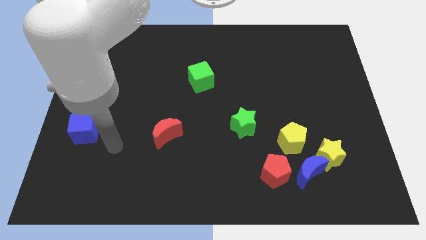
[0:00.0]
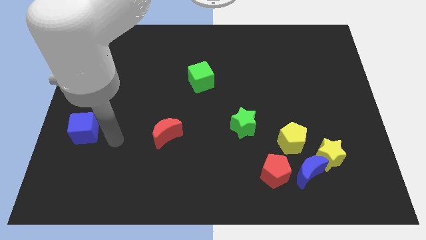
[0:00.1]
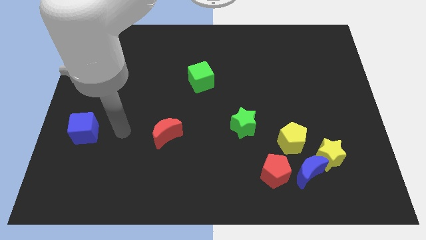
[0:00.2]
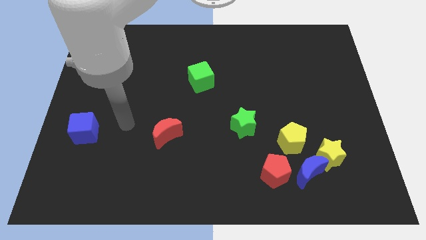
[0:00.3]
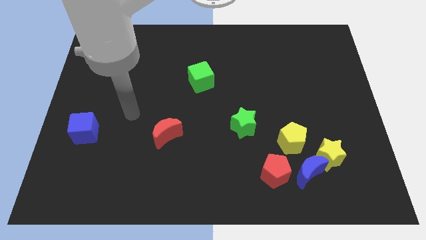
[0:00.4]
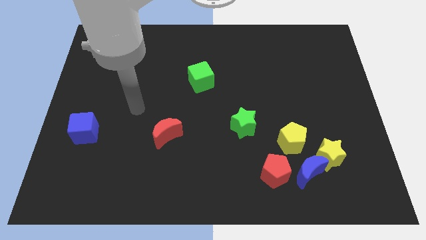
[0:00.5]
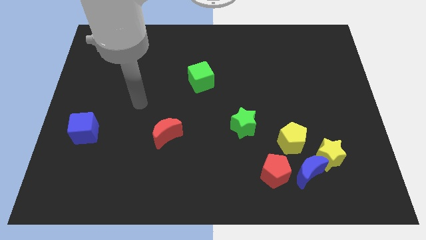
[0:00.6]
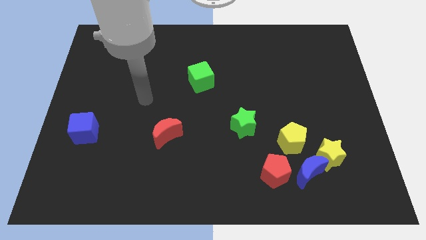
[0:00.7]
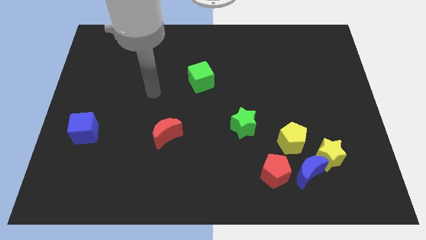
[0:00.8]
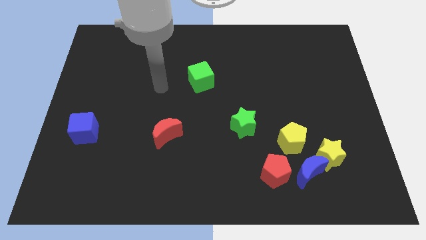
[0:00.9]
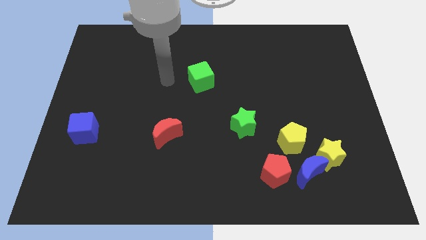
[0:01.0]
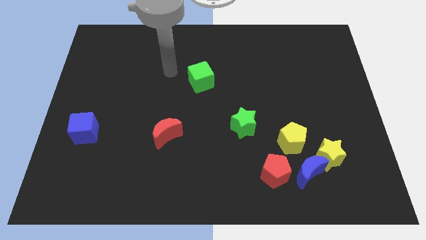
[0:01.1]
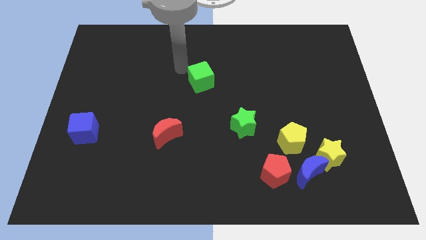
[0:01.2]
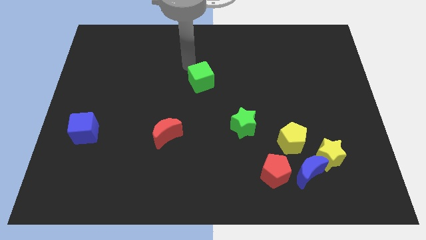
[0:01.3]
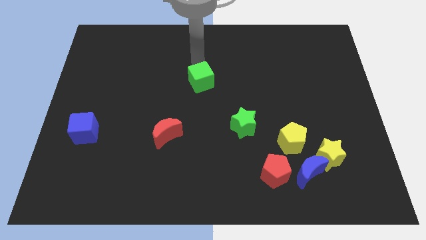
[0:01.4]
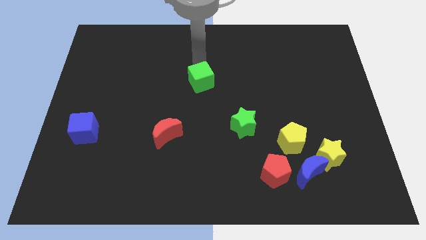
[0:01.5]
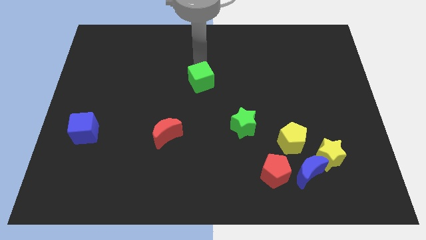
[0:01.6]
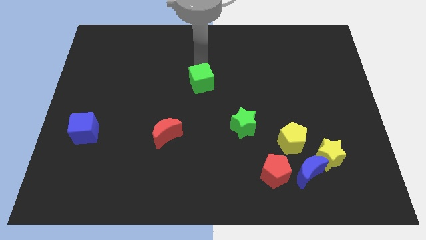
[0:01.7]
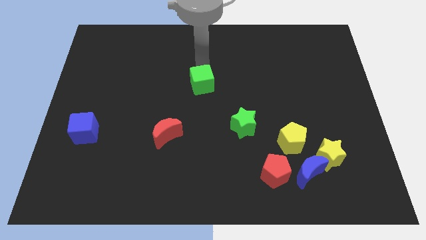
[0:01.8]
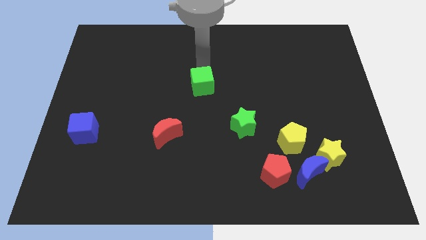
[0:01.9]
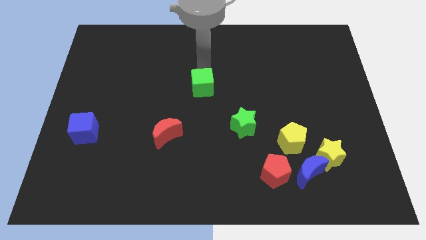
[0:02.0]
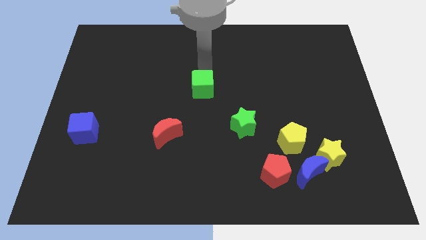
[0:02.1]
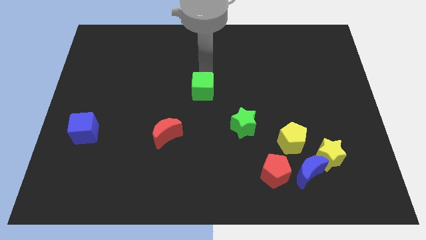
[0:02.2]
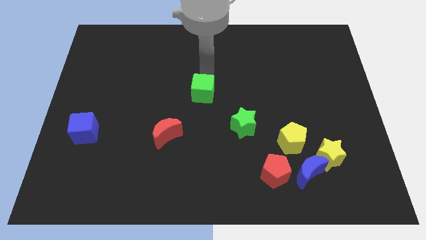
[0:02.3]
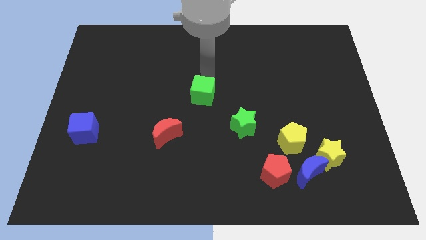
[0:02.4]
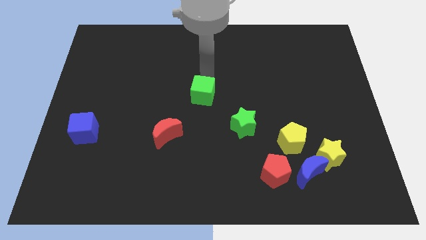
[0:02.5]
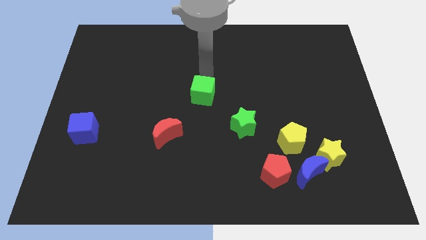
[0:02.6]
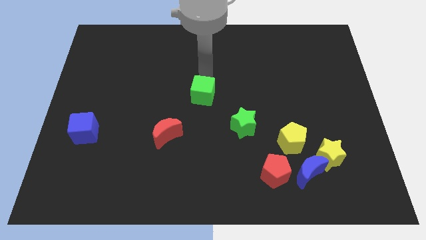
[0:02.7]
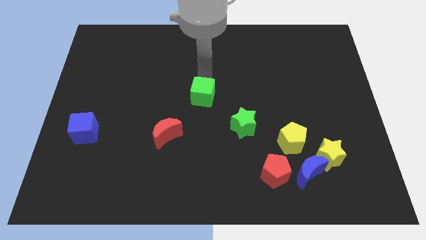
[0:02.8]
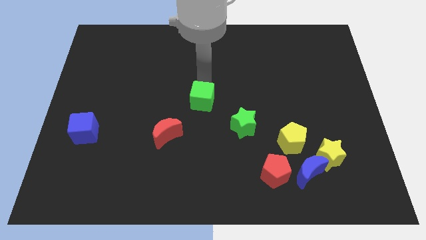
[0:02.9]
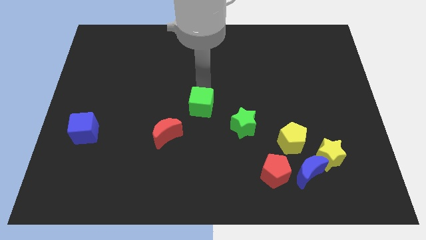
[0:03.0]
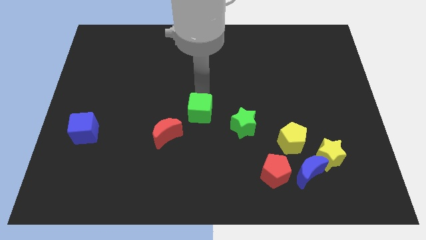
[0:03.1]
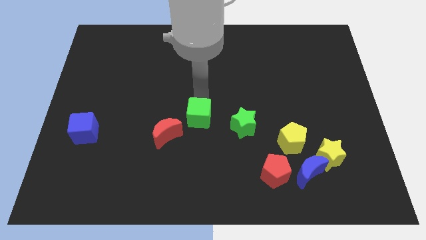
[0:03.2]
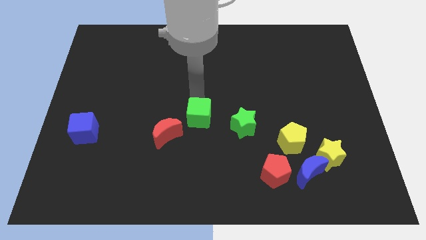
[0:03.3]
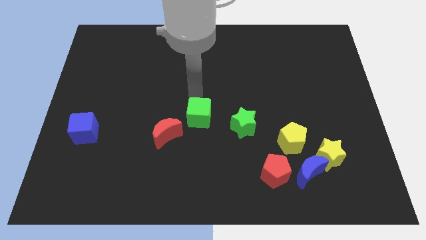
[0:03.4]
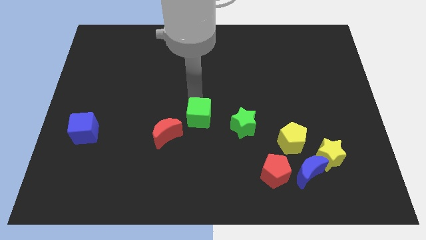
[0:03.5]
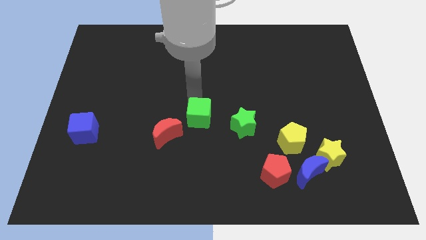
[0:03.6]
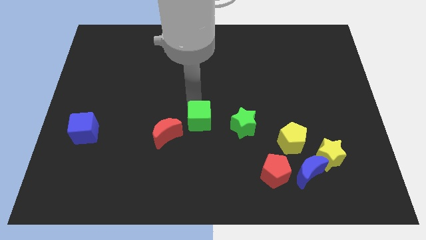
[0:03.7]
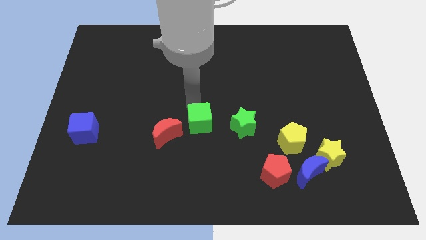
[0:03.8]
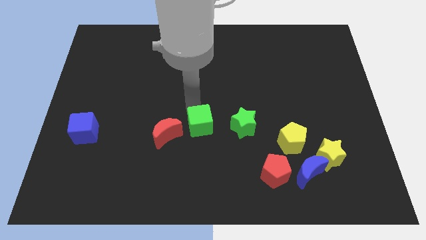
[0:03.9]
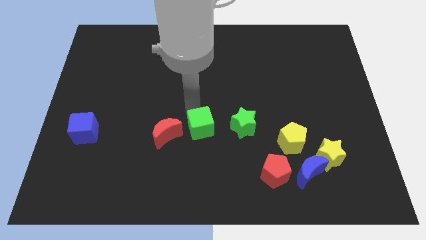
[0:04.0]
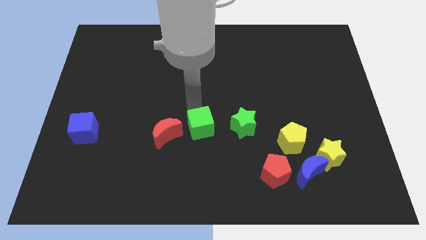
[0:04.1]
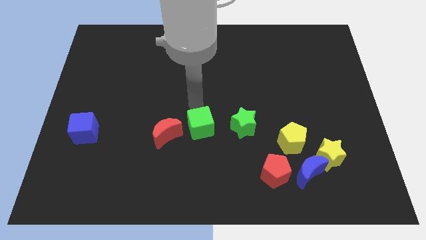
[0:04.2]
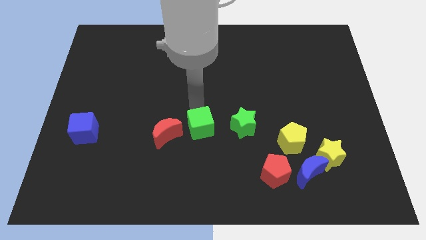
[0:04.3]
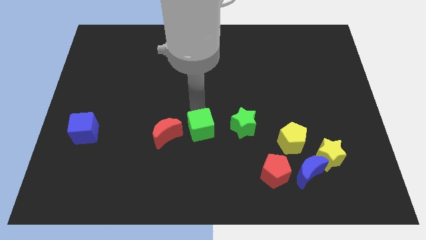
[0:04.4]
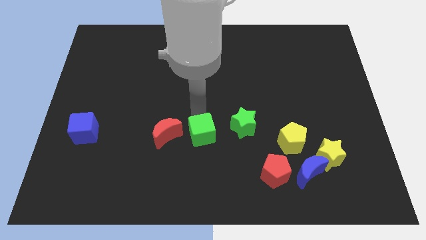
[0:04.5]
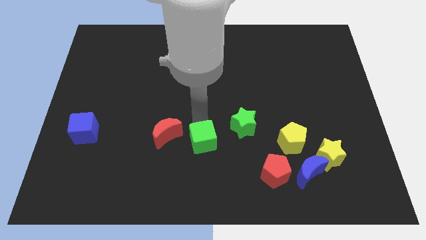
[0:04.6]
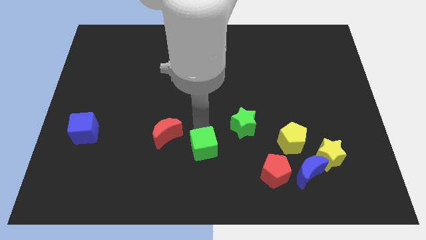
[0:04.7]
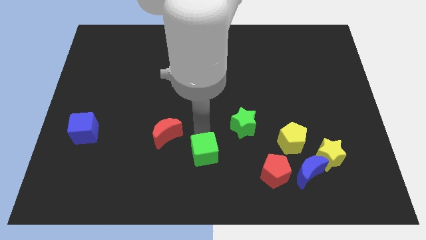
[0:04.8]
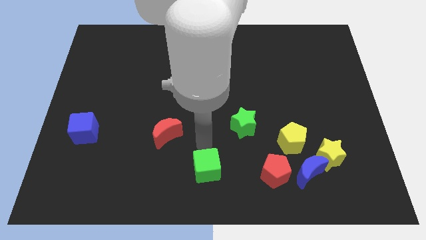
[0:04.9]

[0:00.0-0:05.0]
push the green cube to the bottom

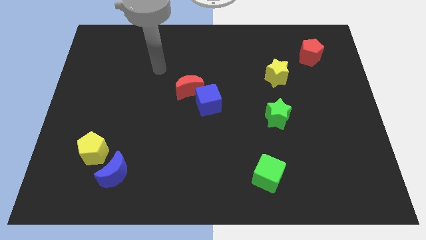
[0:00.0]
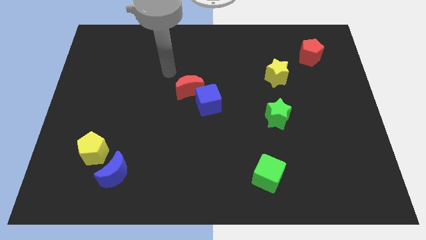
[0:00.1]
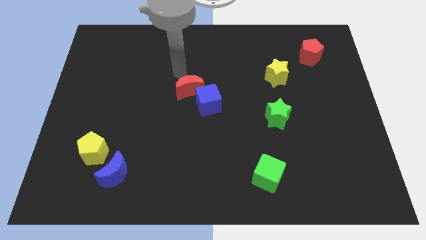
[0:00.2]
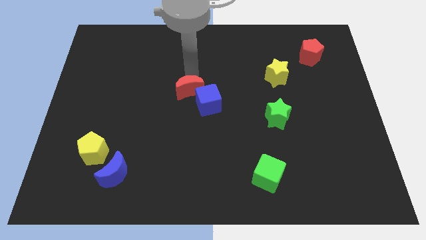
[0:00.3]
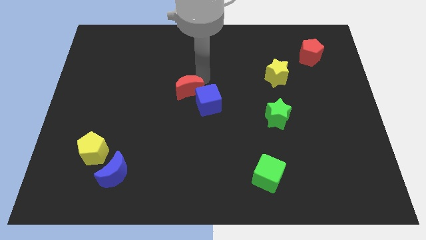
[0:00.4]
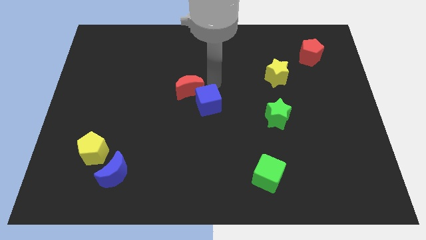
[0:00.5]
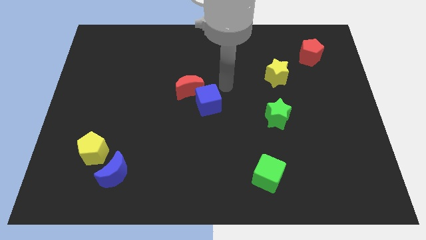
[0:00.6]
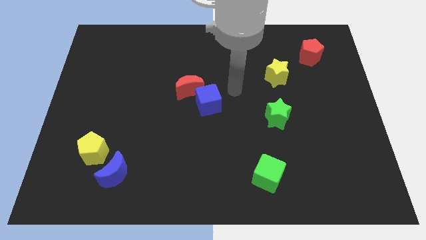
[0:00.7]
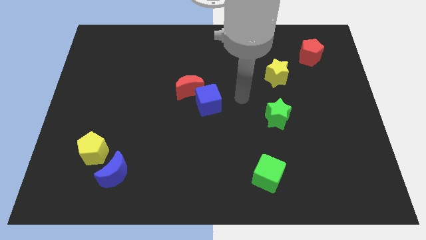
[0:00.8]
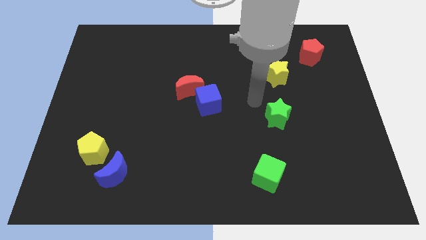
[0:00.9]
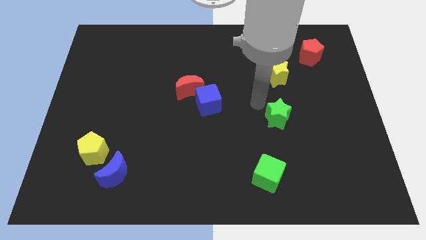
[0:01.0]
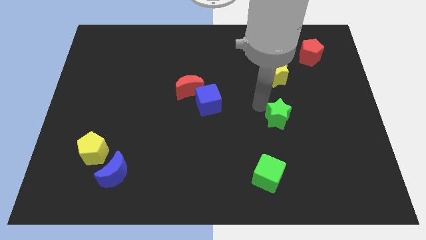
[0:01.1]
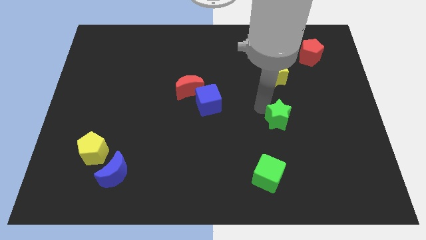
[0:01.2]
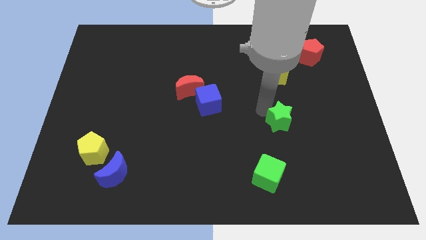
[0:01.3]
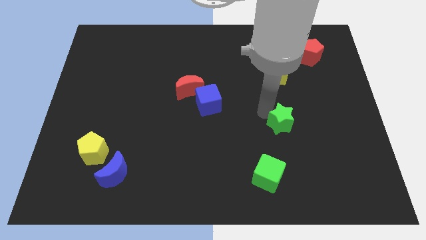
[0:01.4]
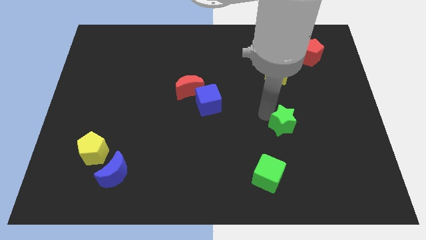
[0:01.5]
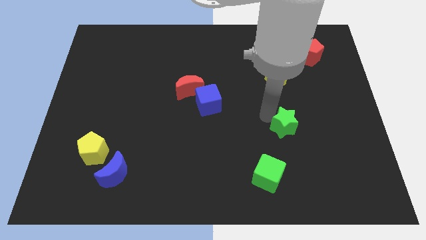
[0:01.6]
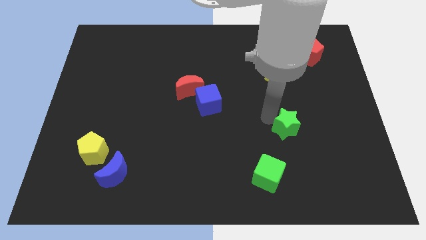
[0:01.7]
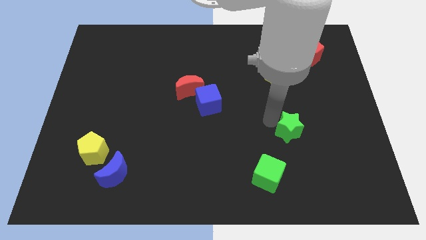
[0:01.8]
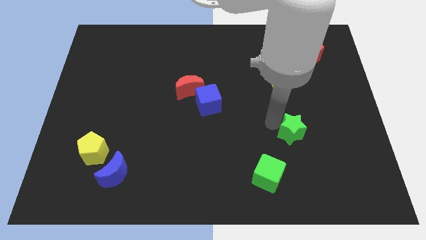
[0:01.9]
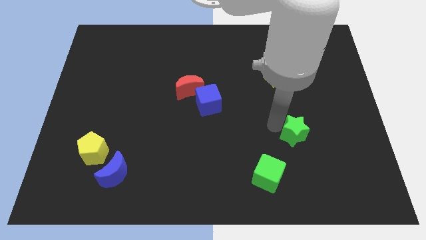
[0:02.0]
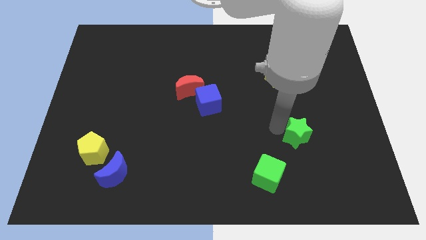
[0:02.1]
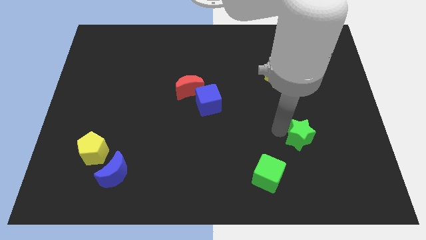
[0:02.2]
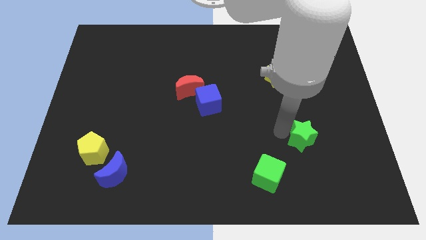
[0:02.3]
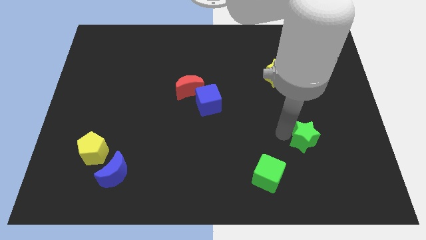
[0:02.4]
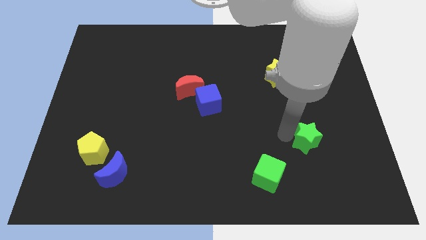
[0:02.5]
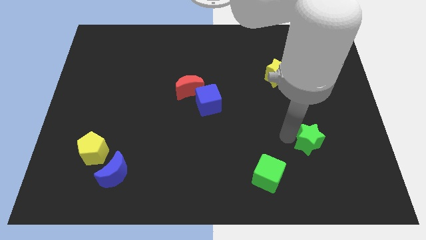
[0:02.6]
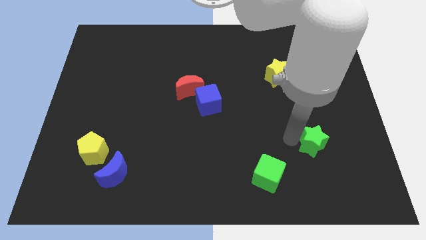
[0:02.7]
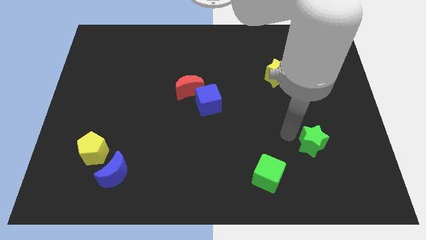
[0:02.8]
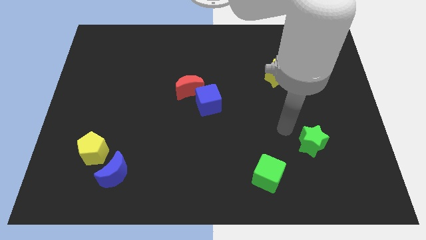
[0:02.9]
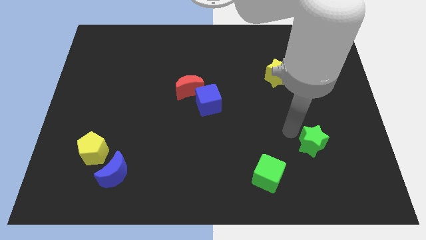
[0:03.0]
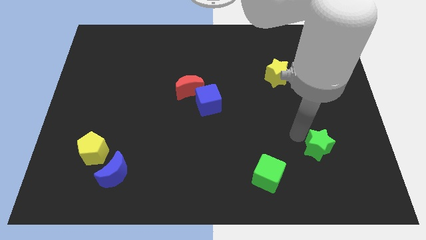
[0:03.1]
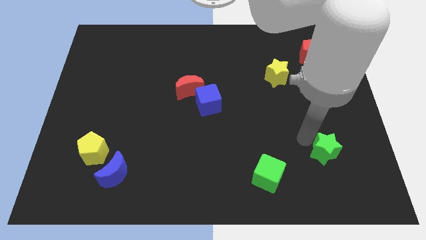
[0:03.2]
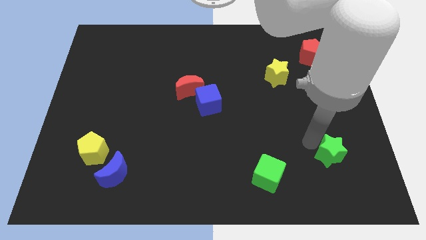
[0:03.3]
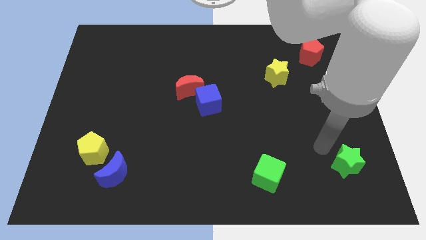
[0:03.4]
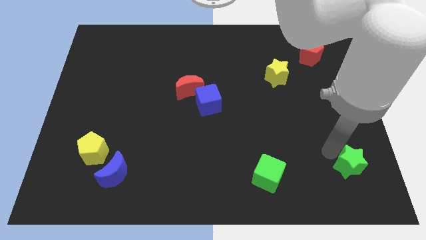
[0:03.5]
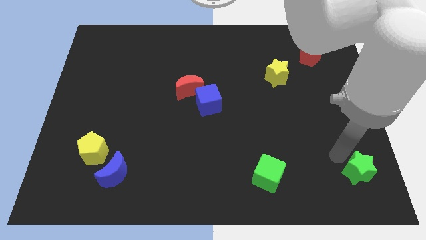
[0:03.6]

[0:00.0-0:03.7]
put the green star to the bottom right of the board
